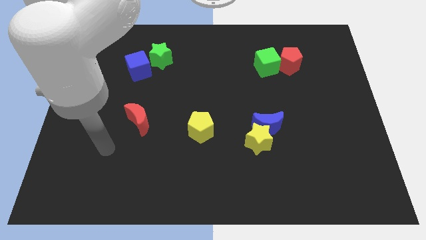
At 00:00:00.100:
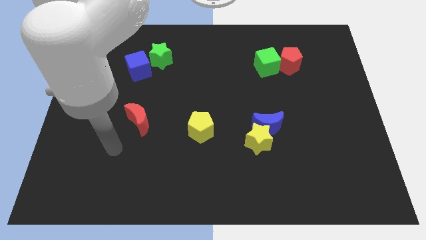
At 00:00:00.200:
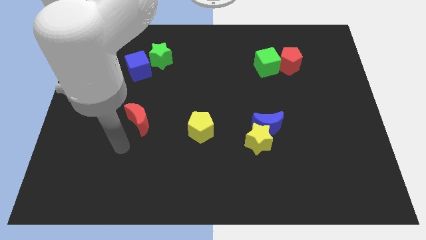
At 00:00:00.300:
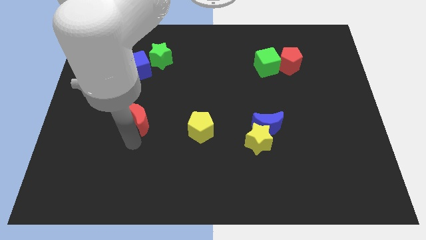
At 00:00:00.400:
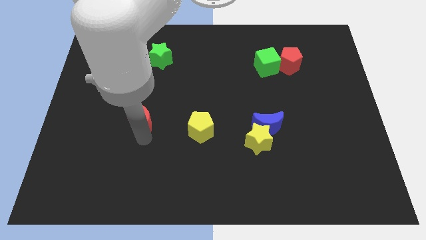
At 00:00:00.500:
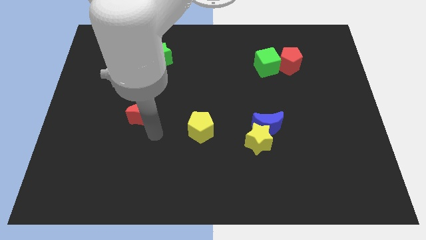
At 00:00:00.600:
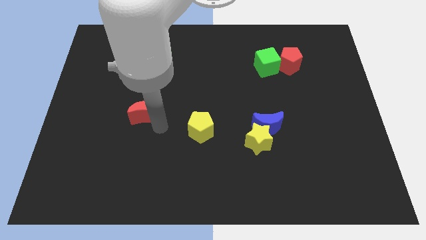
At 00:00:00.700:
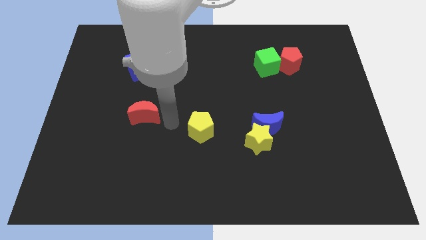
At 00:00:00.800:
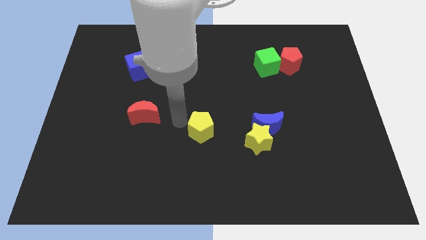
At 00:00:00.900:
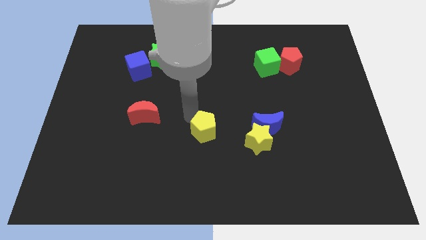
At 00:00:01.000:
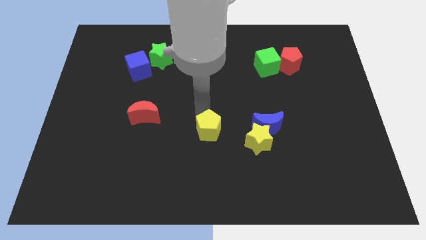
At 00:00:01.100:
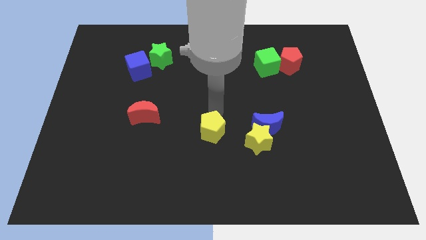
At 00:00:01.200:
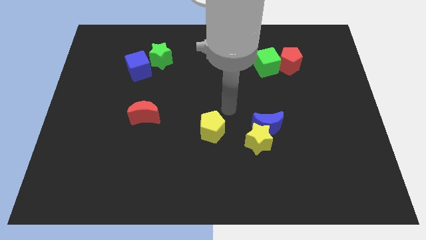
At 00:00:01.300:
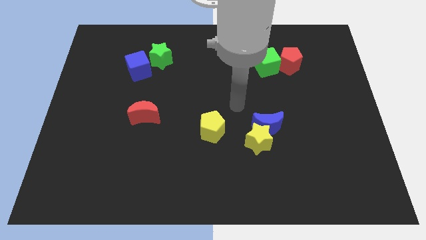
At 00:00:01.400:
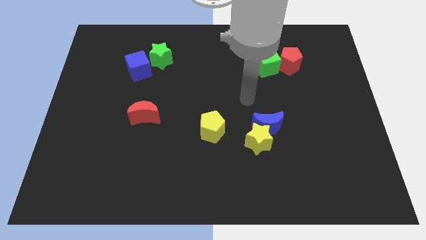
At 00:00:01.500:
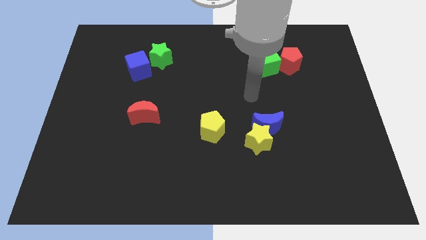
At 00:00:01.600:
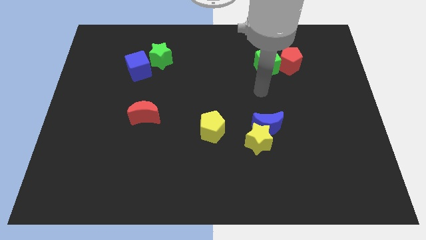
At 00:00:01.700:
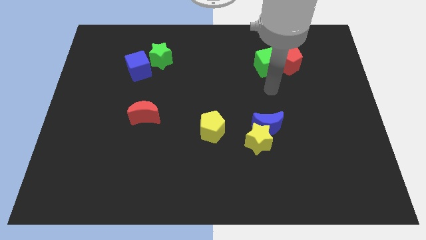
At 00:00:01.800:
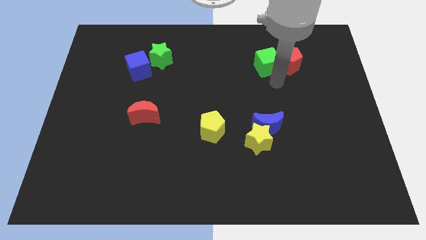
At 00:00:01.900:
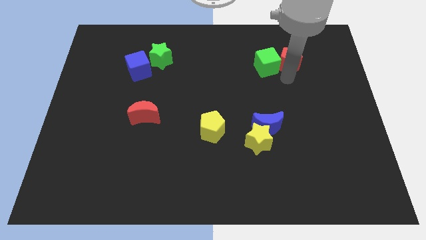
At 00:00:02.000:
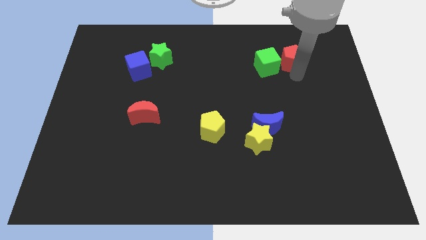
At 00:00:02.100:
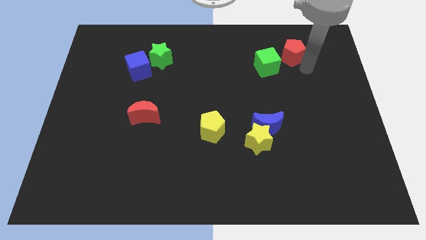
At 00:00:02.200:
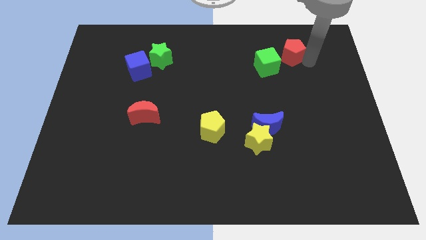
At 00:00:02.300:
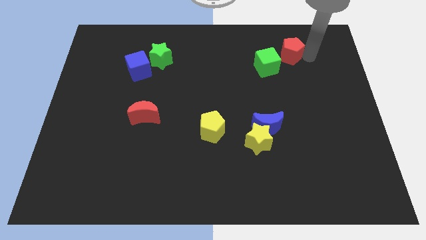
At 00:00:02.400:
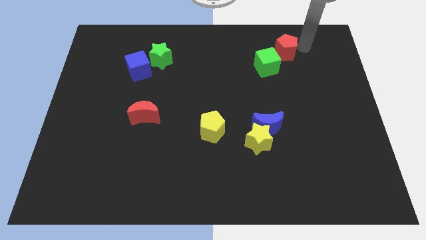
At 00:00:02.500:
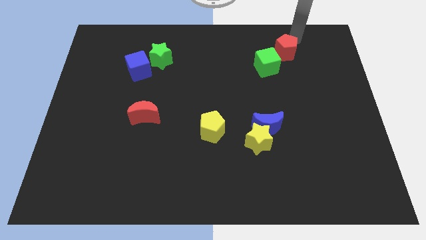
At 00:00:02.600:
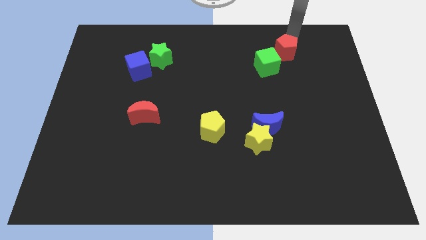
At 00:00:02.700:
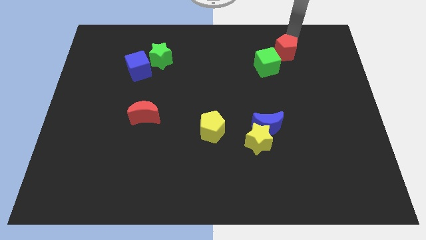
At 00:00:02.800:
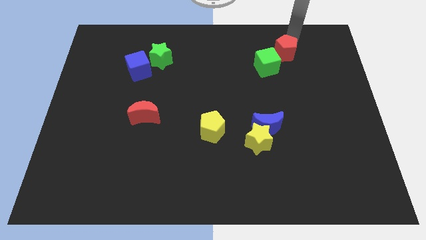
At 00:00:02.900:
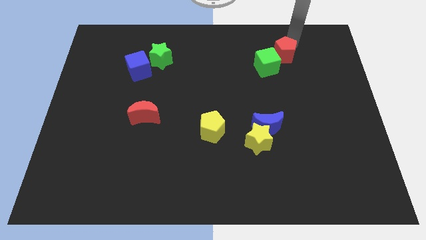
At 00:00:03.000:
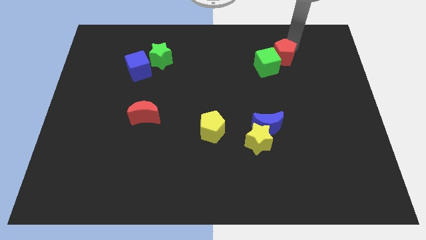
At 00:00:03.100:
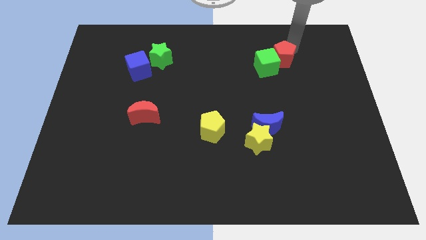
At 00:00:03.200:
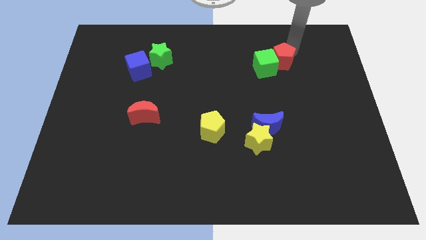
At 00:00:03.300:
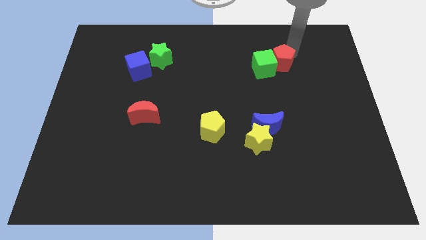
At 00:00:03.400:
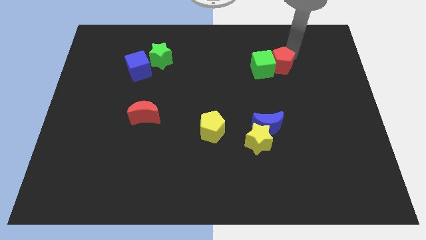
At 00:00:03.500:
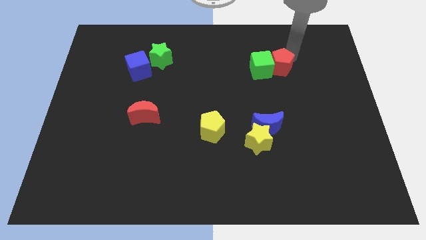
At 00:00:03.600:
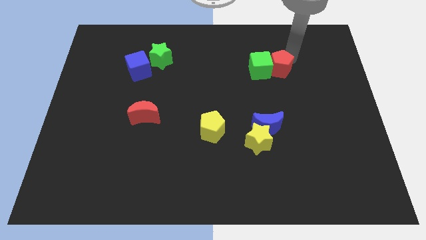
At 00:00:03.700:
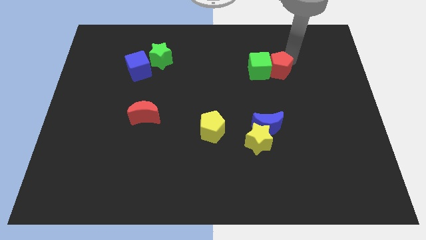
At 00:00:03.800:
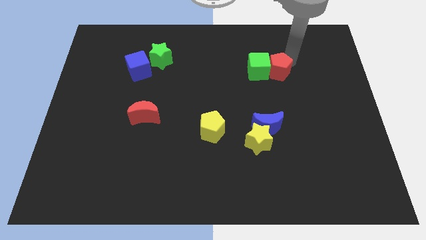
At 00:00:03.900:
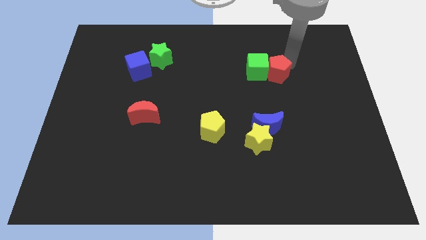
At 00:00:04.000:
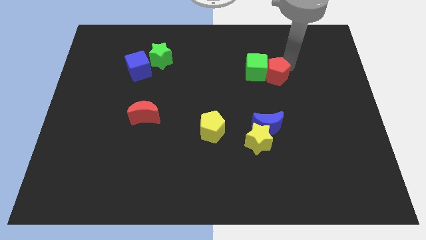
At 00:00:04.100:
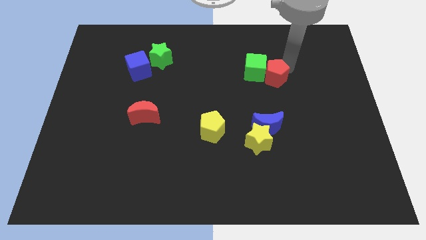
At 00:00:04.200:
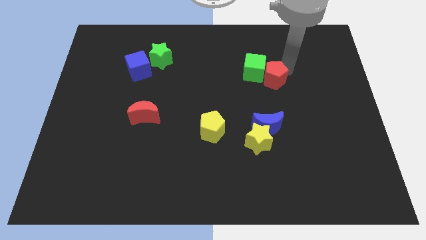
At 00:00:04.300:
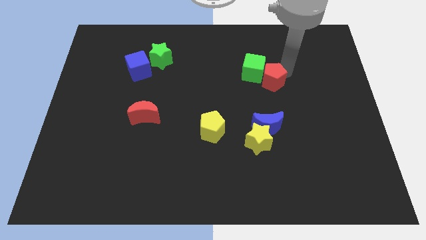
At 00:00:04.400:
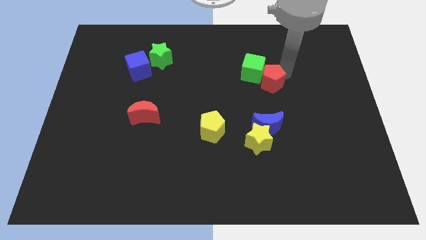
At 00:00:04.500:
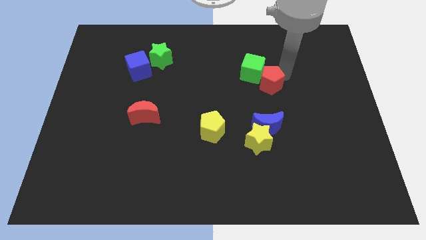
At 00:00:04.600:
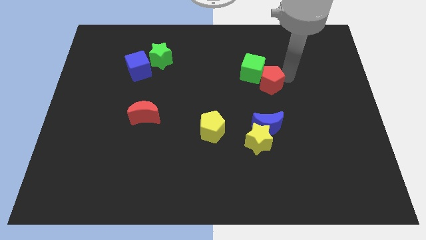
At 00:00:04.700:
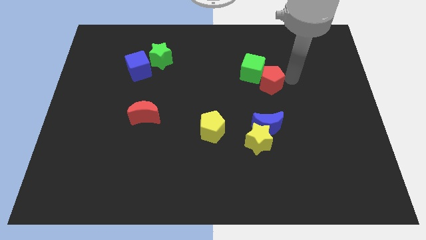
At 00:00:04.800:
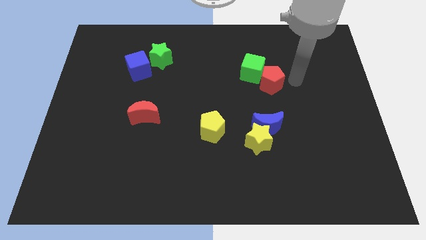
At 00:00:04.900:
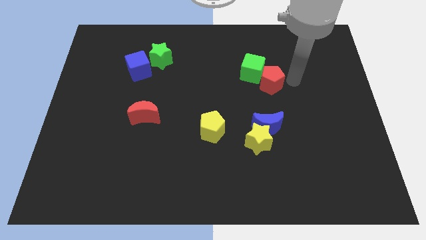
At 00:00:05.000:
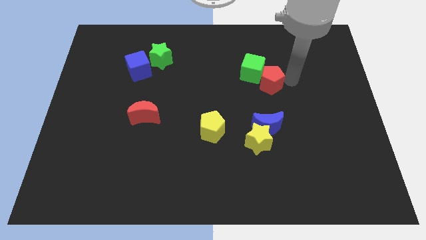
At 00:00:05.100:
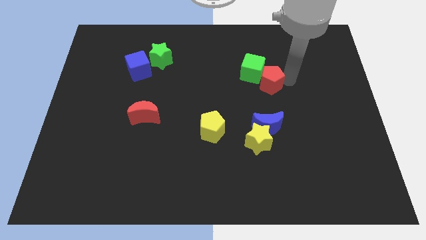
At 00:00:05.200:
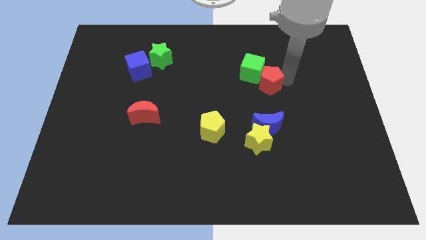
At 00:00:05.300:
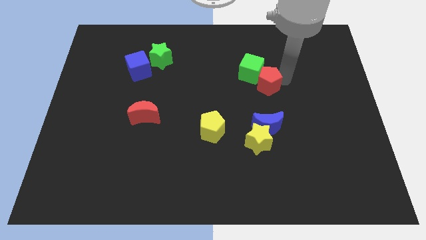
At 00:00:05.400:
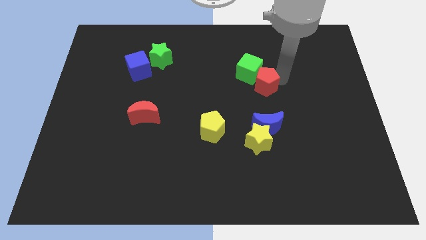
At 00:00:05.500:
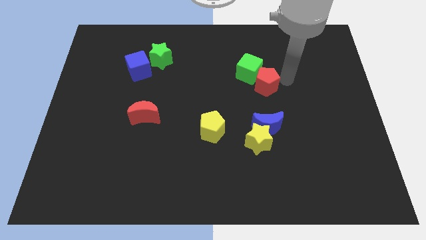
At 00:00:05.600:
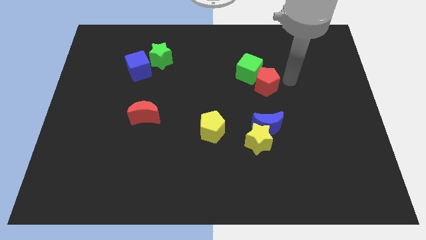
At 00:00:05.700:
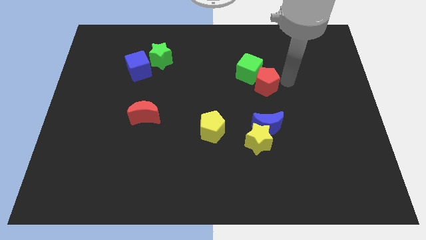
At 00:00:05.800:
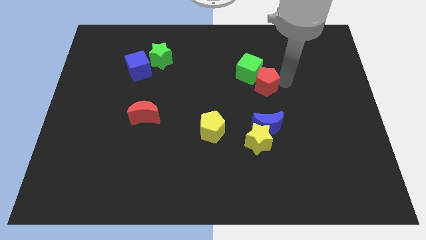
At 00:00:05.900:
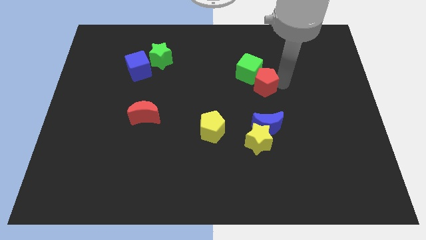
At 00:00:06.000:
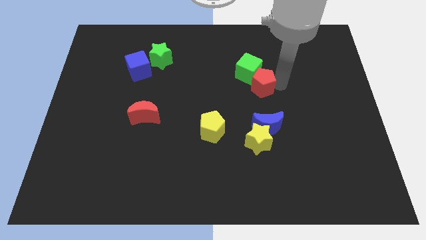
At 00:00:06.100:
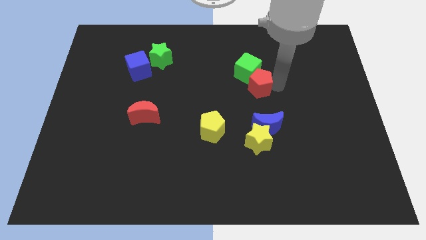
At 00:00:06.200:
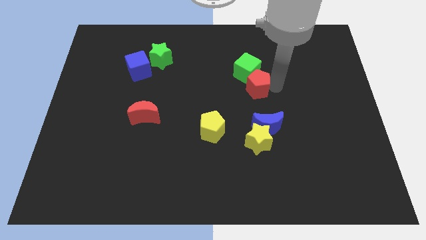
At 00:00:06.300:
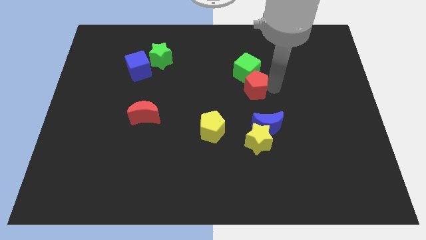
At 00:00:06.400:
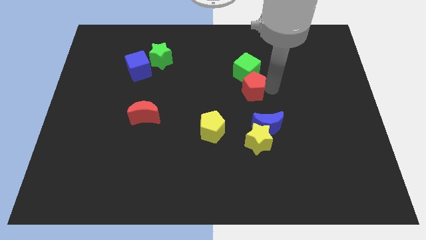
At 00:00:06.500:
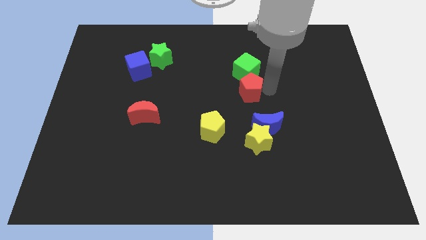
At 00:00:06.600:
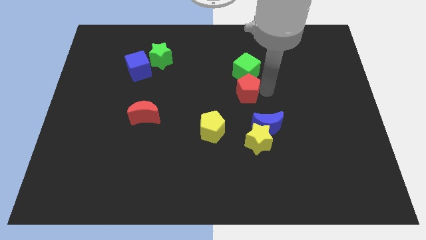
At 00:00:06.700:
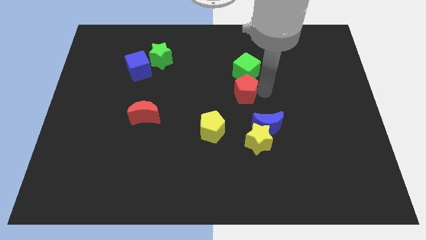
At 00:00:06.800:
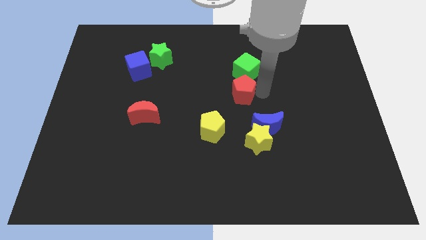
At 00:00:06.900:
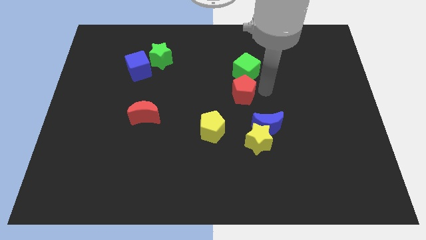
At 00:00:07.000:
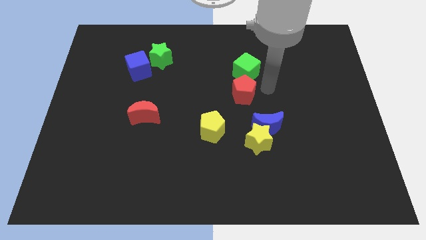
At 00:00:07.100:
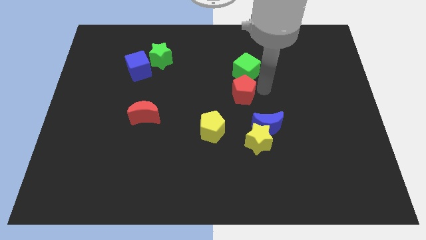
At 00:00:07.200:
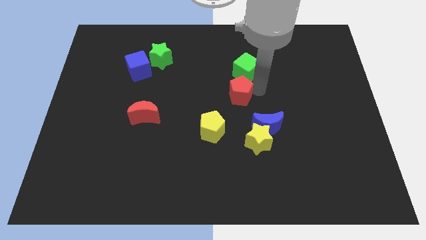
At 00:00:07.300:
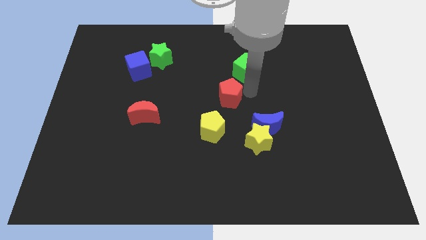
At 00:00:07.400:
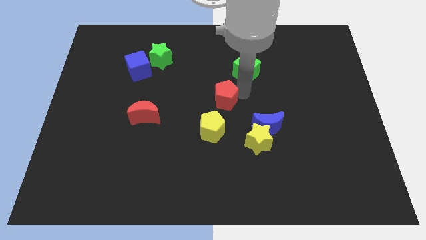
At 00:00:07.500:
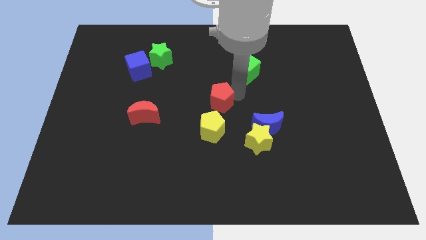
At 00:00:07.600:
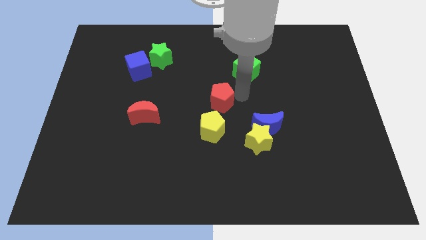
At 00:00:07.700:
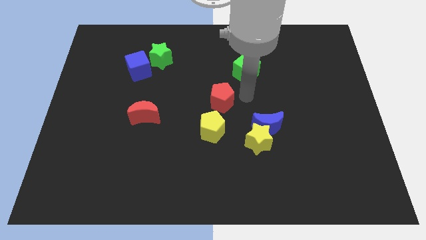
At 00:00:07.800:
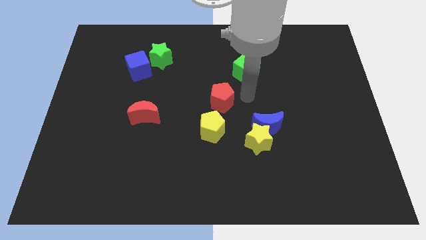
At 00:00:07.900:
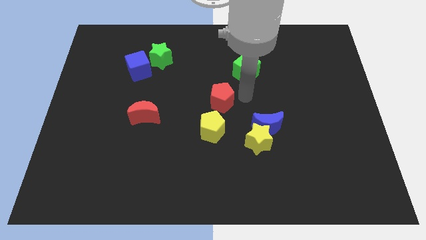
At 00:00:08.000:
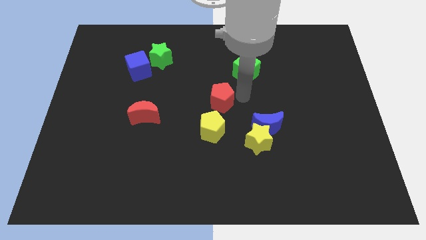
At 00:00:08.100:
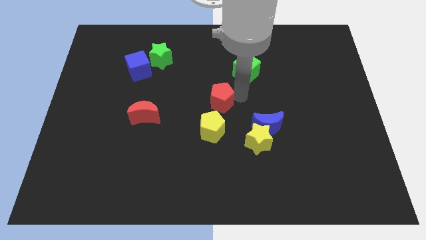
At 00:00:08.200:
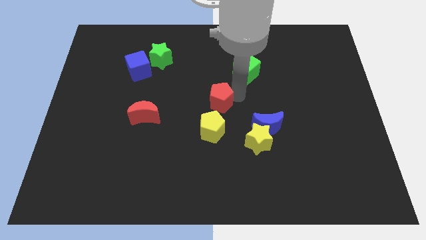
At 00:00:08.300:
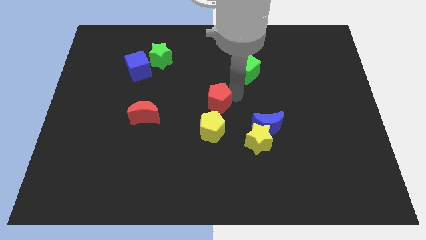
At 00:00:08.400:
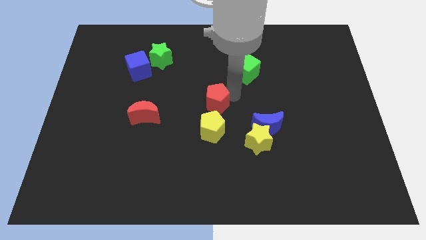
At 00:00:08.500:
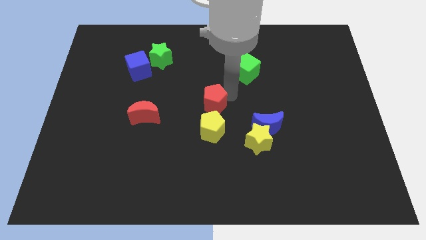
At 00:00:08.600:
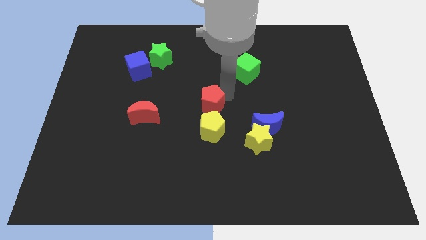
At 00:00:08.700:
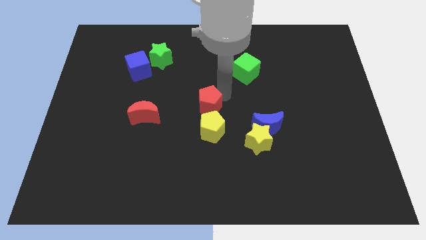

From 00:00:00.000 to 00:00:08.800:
move the red pentagon to the right side of the red moon
